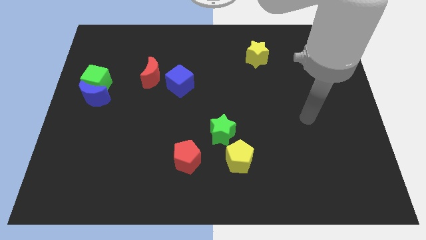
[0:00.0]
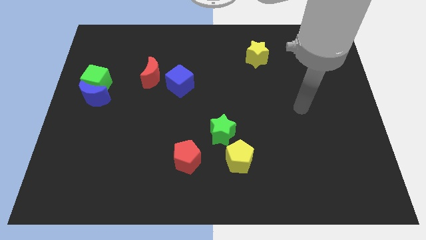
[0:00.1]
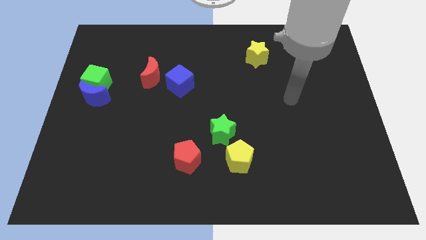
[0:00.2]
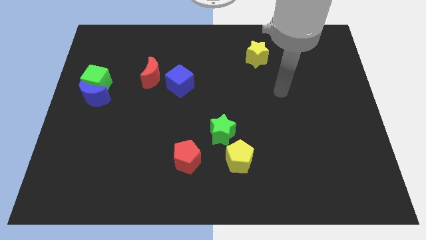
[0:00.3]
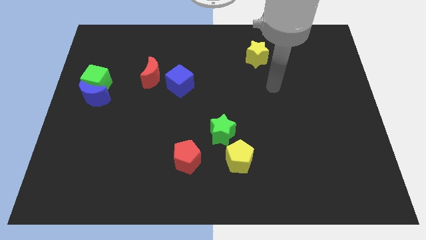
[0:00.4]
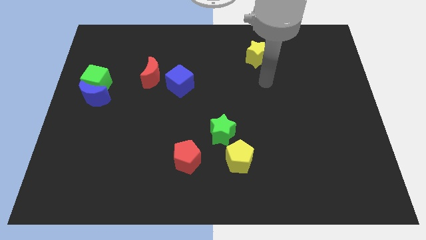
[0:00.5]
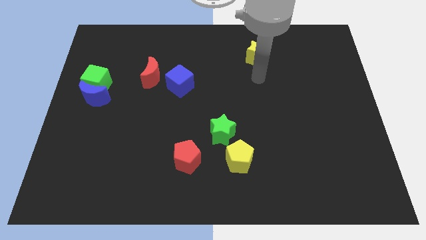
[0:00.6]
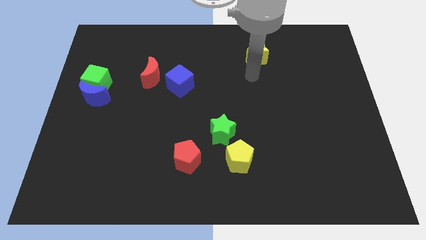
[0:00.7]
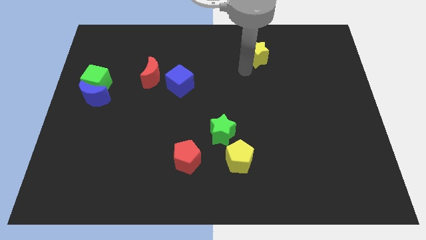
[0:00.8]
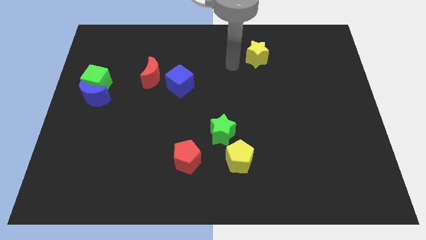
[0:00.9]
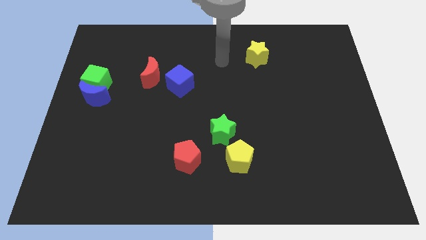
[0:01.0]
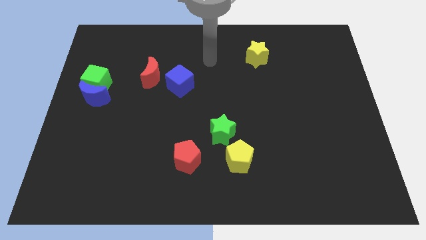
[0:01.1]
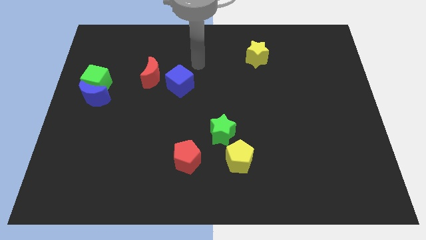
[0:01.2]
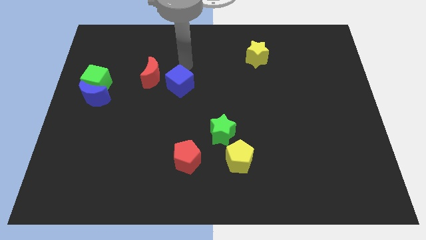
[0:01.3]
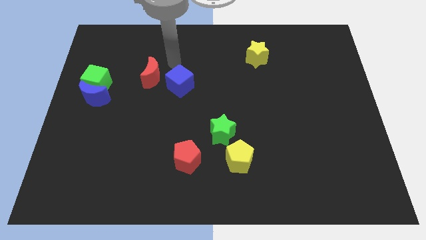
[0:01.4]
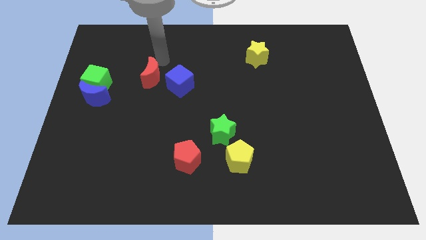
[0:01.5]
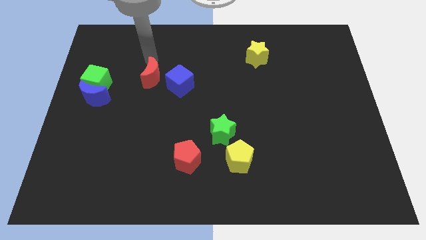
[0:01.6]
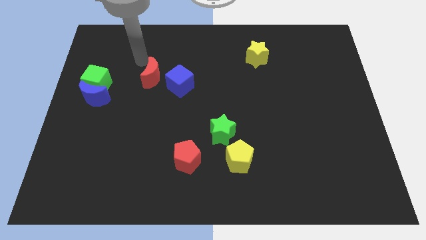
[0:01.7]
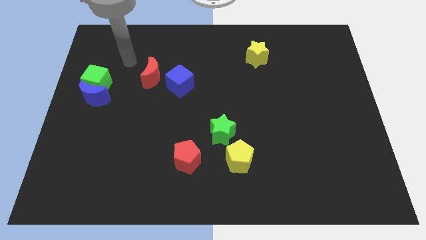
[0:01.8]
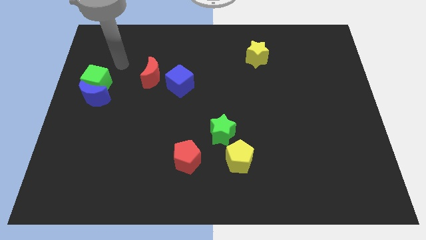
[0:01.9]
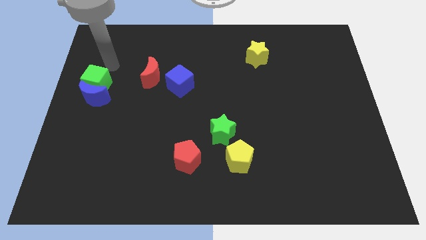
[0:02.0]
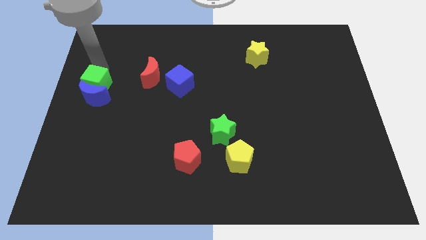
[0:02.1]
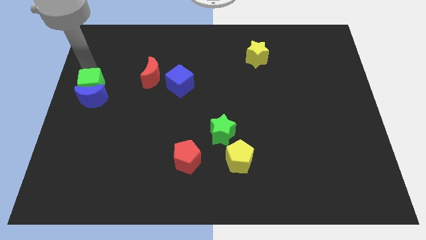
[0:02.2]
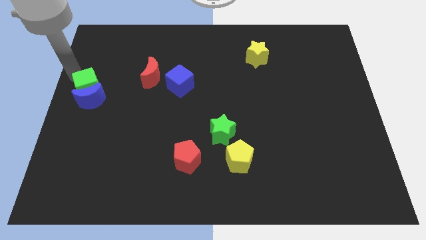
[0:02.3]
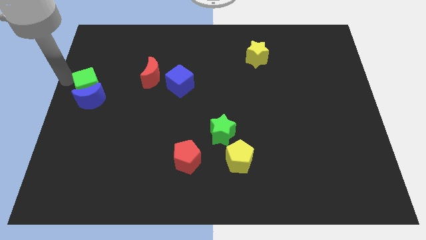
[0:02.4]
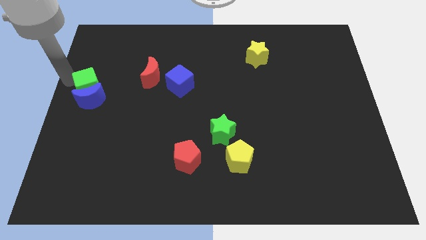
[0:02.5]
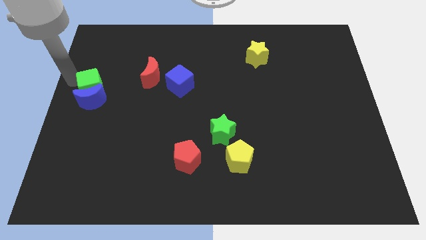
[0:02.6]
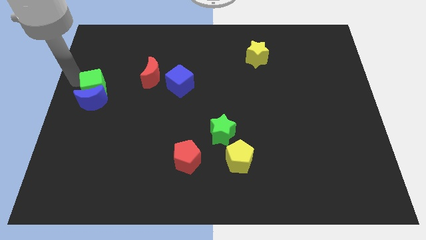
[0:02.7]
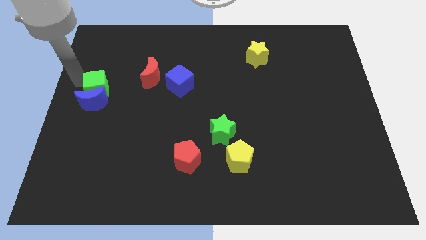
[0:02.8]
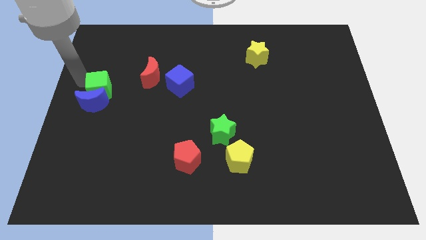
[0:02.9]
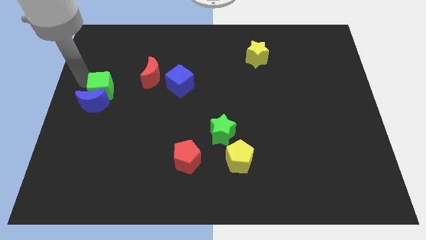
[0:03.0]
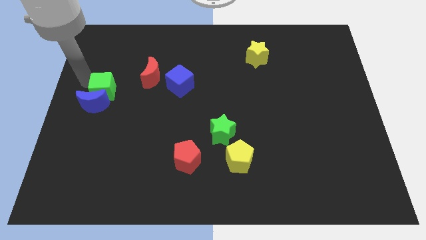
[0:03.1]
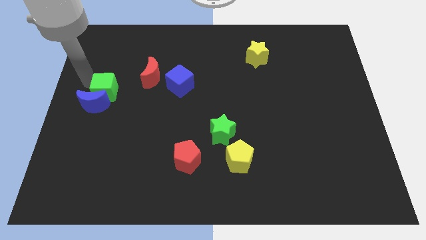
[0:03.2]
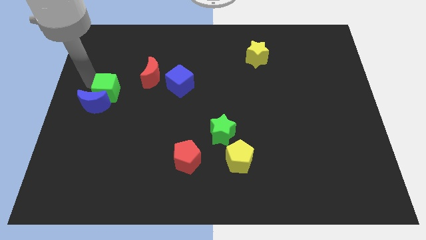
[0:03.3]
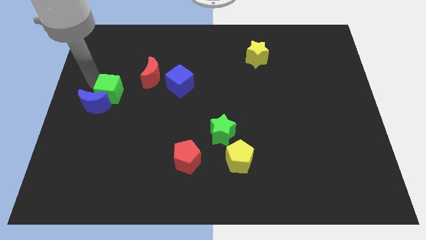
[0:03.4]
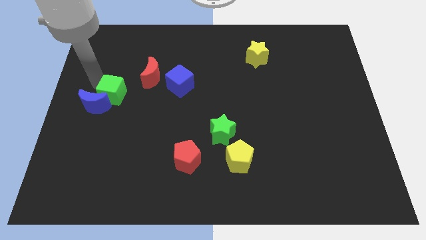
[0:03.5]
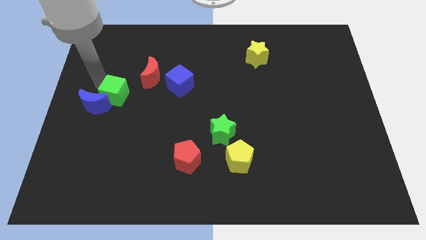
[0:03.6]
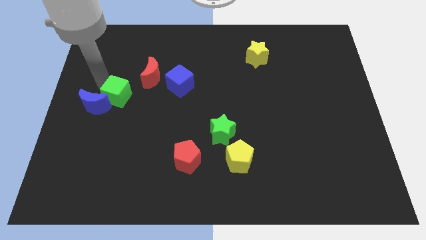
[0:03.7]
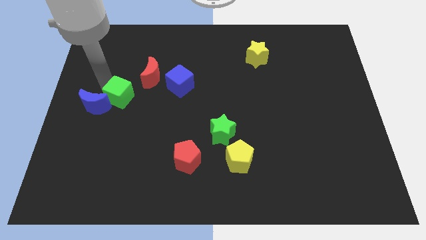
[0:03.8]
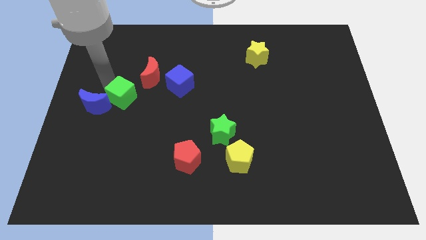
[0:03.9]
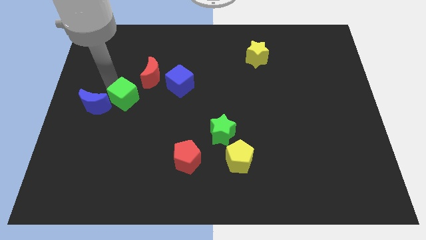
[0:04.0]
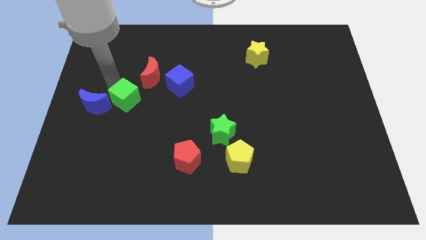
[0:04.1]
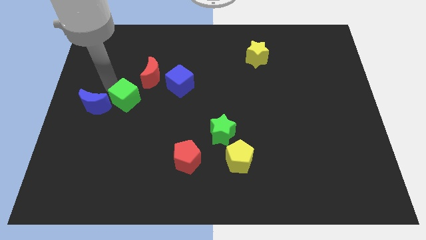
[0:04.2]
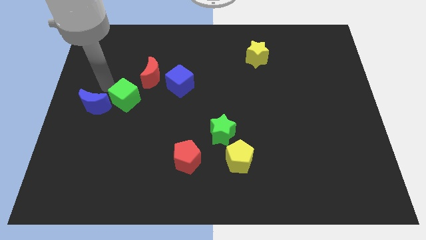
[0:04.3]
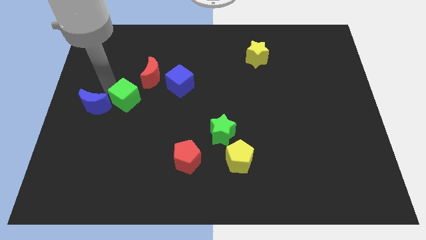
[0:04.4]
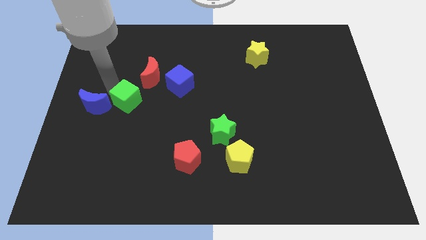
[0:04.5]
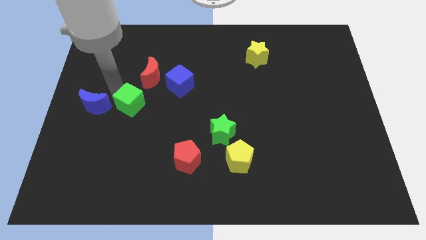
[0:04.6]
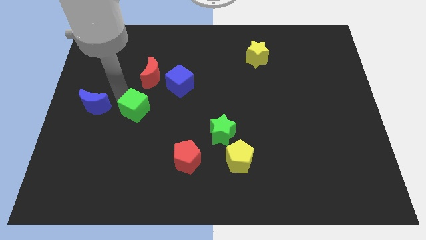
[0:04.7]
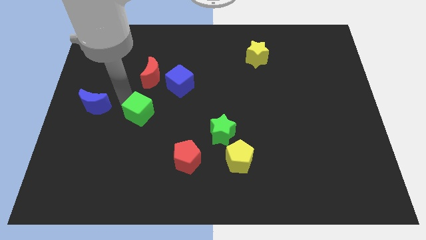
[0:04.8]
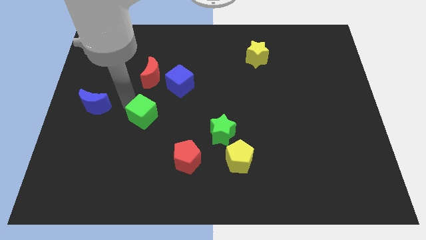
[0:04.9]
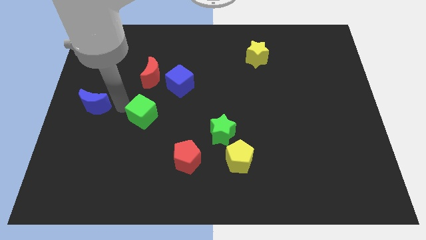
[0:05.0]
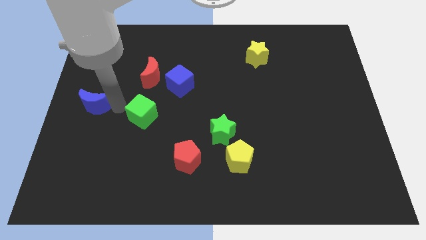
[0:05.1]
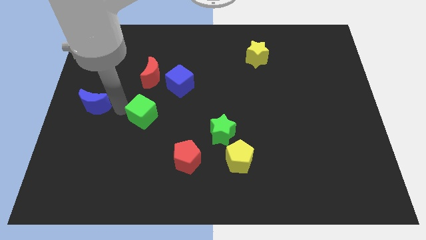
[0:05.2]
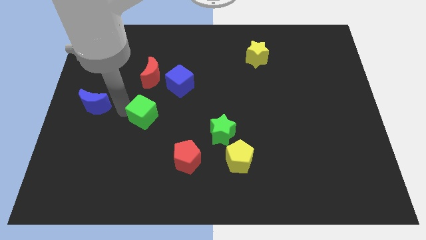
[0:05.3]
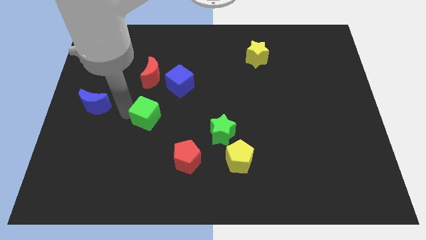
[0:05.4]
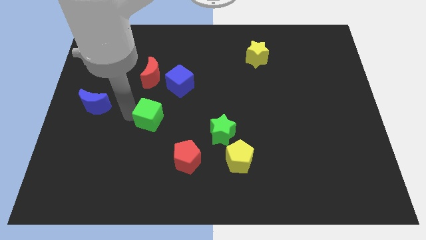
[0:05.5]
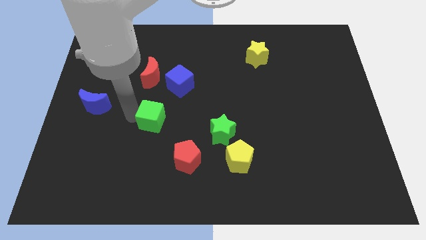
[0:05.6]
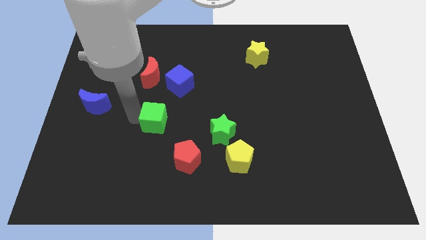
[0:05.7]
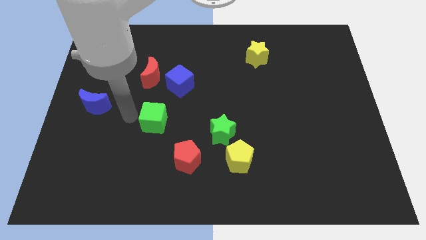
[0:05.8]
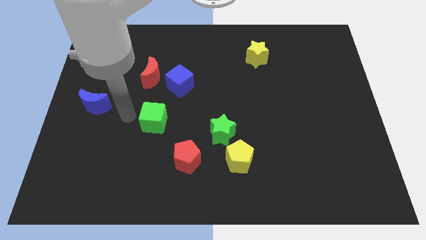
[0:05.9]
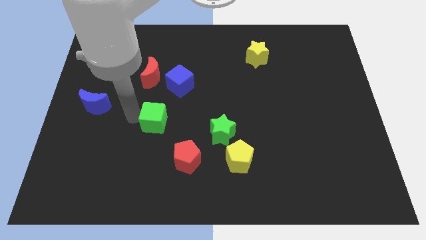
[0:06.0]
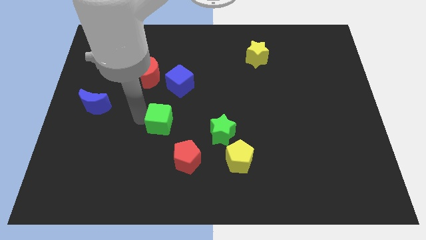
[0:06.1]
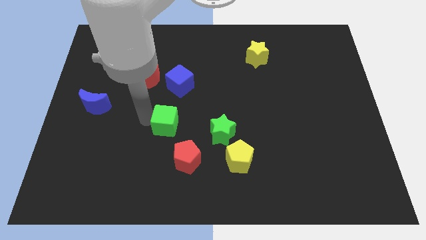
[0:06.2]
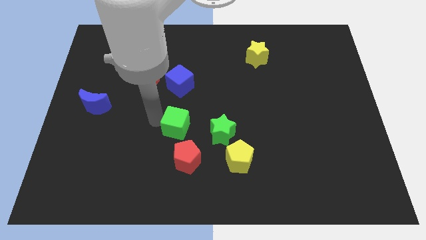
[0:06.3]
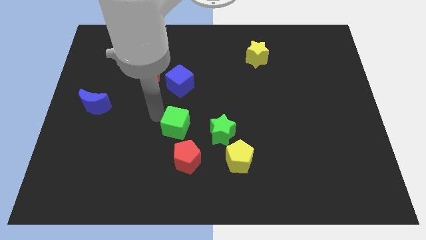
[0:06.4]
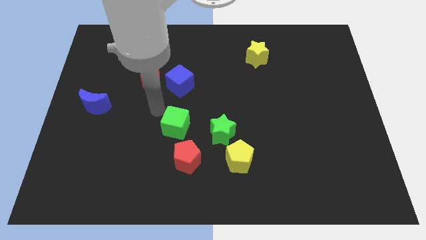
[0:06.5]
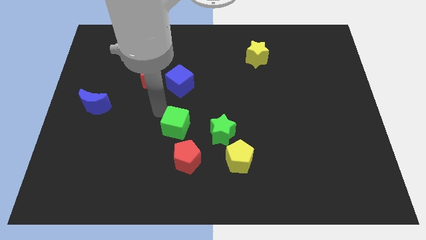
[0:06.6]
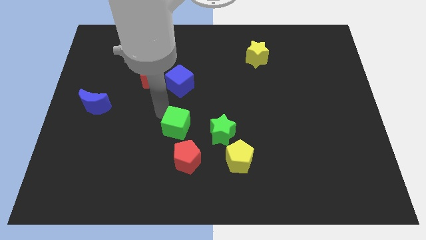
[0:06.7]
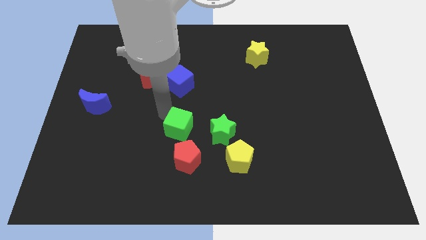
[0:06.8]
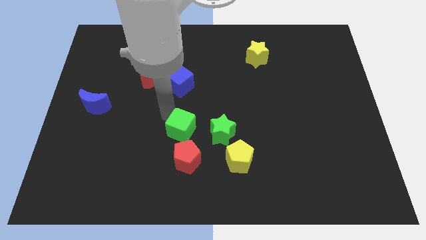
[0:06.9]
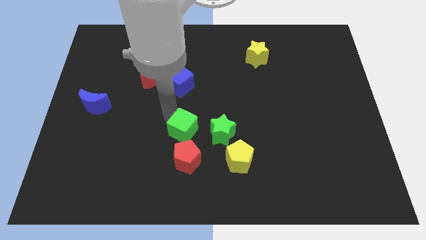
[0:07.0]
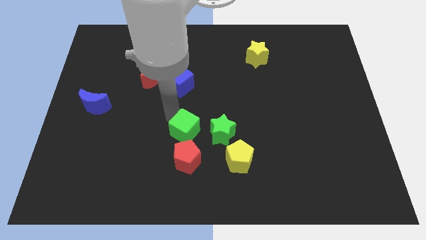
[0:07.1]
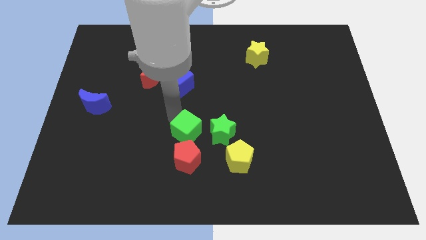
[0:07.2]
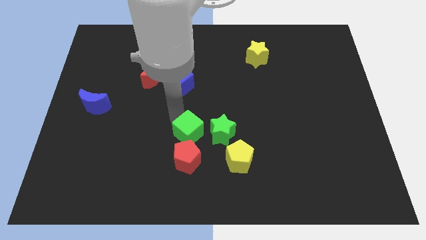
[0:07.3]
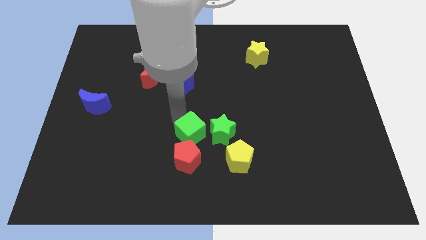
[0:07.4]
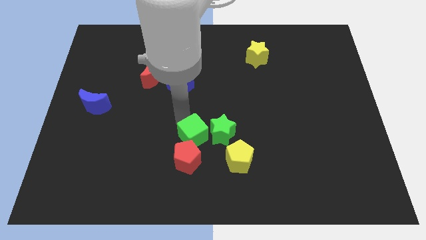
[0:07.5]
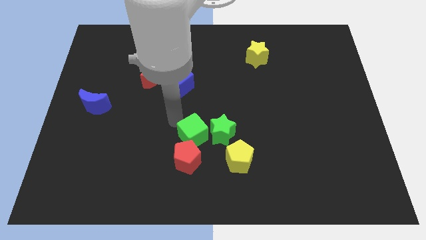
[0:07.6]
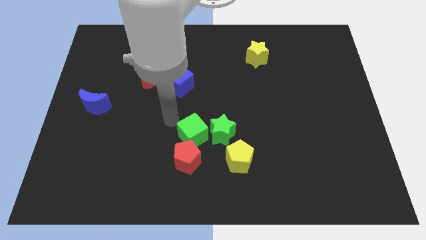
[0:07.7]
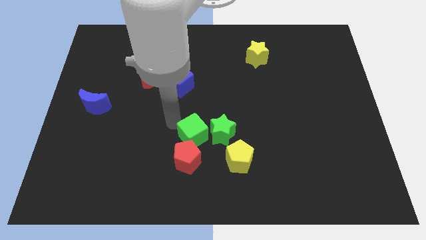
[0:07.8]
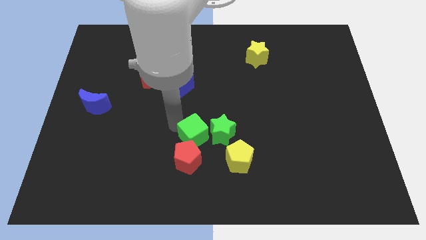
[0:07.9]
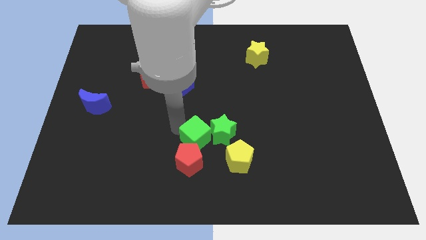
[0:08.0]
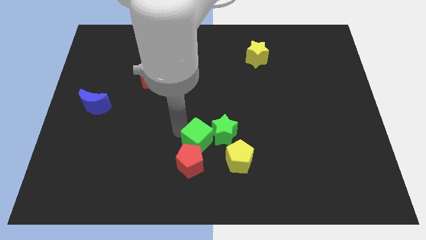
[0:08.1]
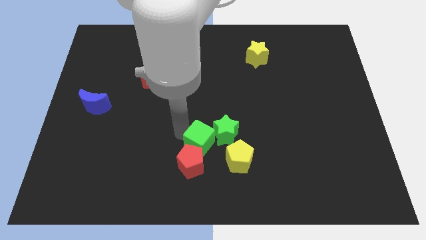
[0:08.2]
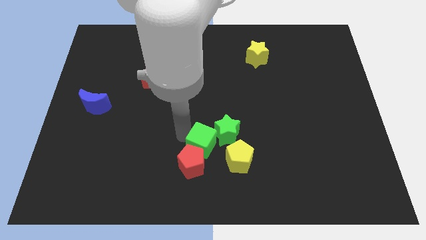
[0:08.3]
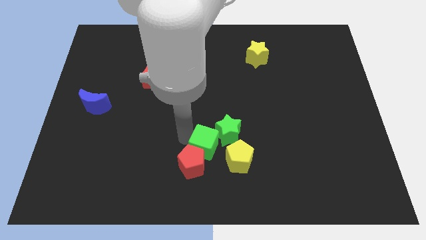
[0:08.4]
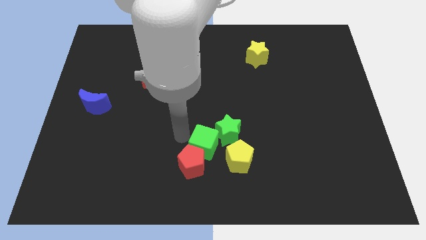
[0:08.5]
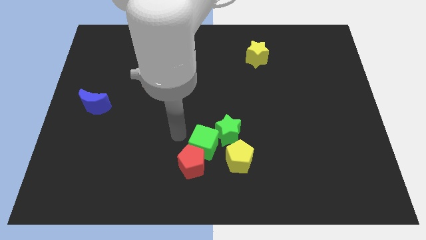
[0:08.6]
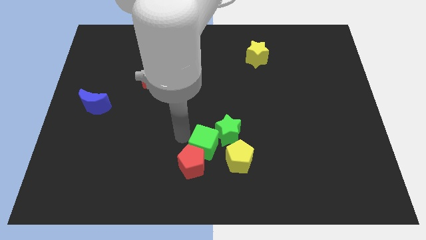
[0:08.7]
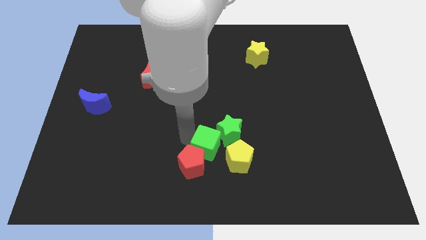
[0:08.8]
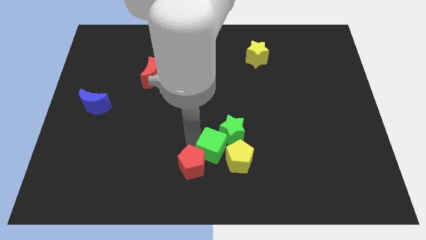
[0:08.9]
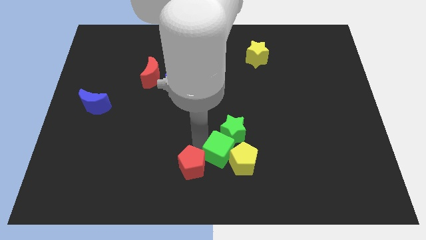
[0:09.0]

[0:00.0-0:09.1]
move the green cube next to the yellow pentagon
